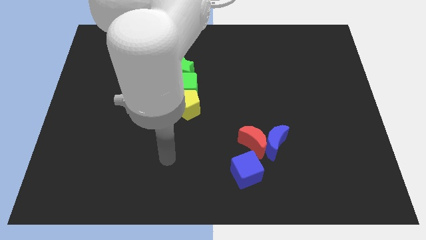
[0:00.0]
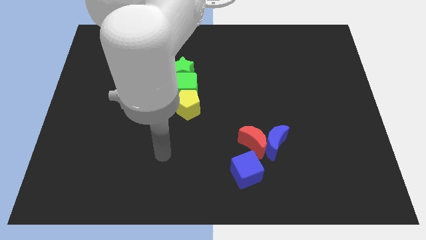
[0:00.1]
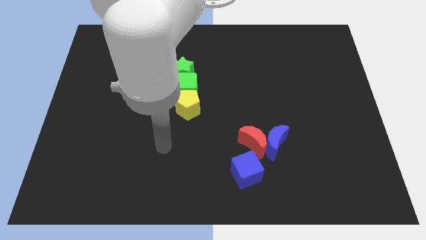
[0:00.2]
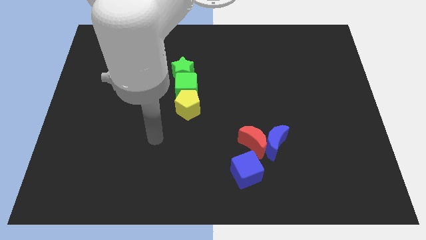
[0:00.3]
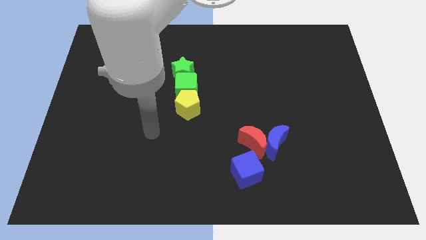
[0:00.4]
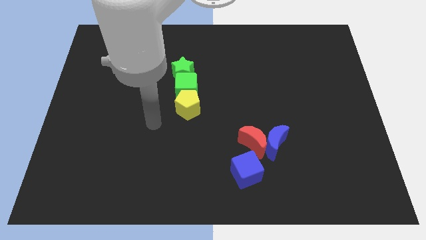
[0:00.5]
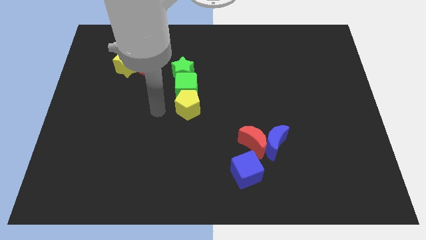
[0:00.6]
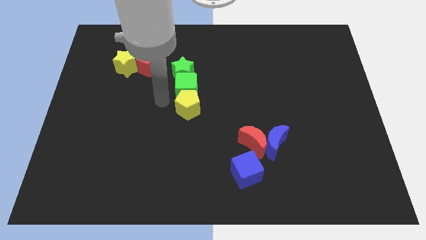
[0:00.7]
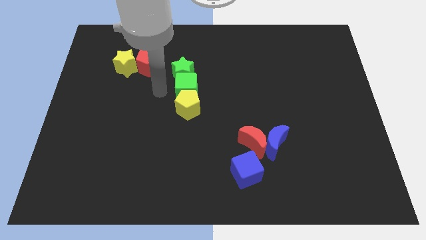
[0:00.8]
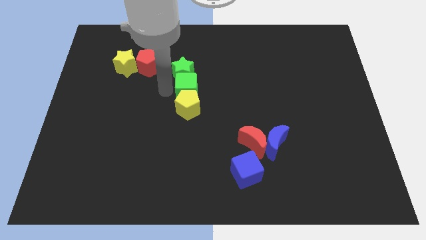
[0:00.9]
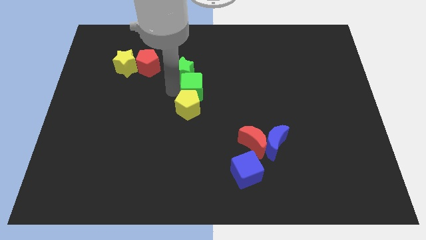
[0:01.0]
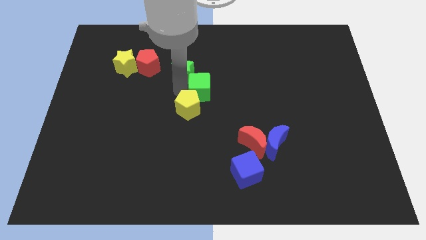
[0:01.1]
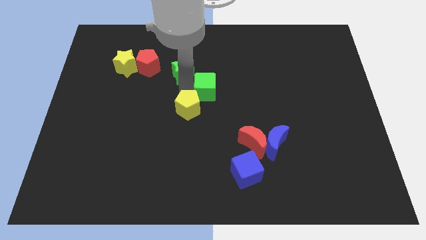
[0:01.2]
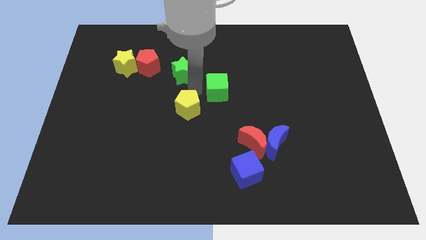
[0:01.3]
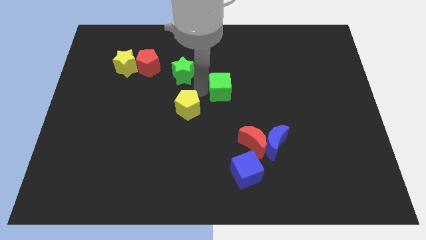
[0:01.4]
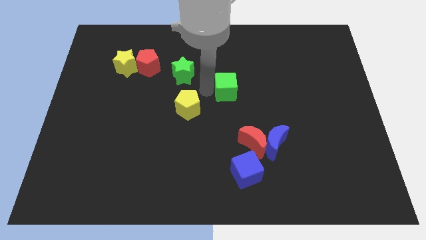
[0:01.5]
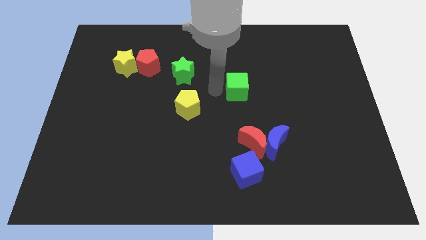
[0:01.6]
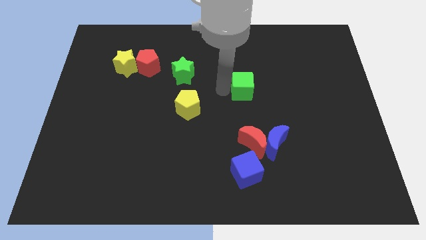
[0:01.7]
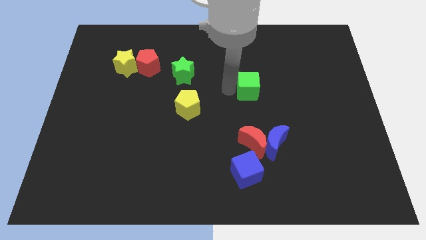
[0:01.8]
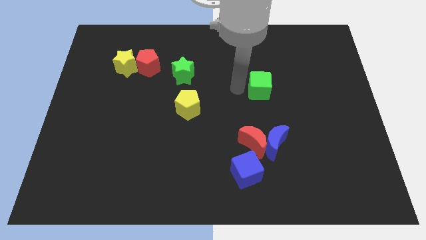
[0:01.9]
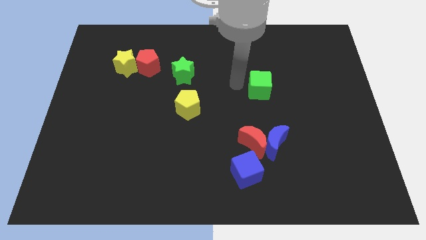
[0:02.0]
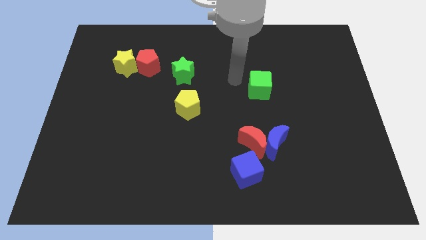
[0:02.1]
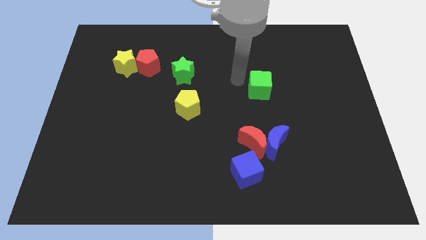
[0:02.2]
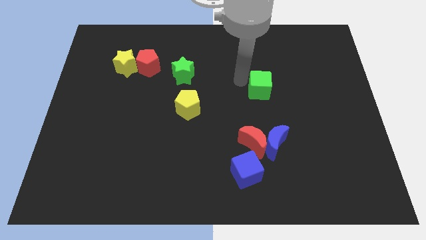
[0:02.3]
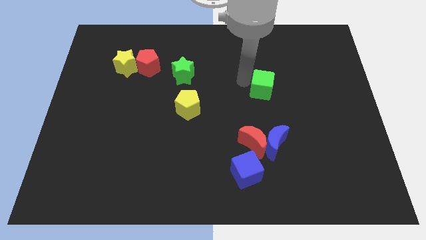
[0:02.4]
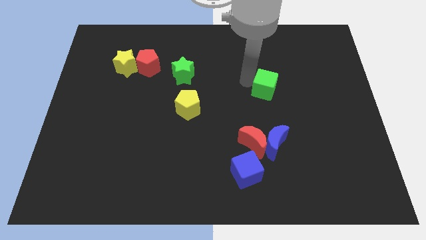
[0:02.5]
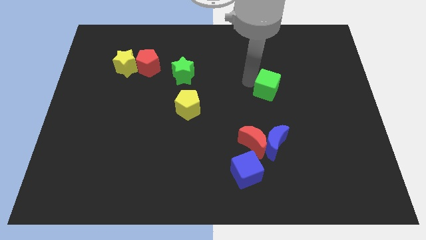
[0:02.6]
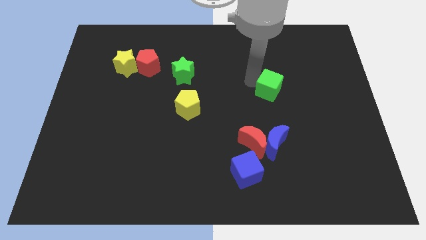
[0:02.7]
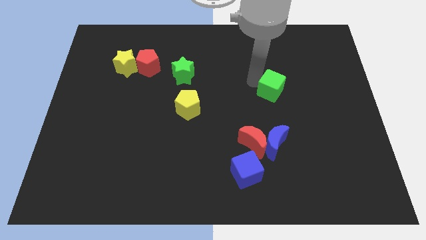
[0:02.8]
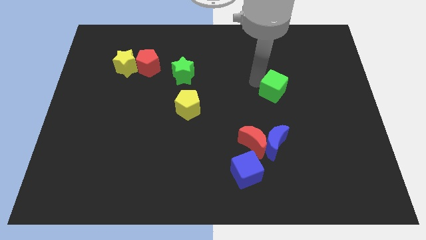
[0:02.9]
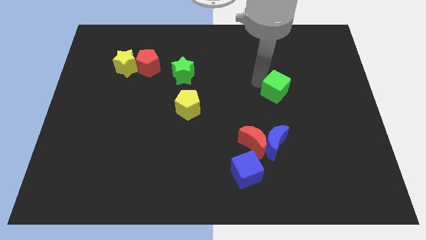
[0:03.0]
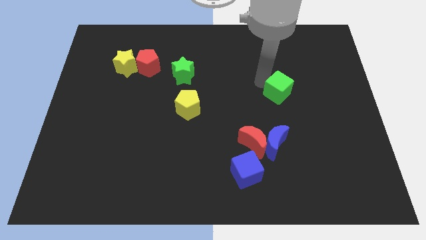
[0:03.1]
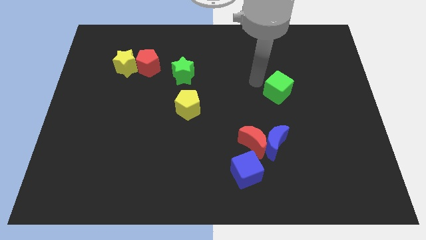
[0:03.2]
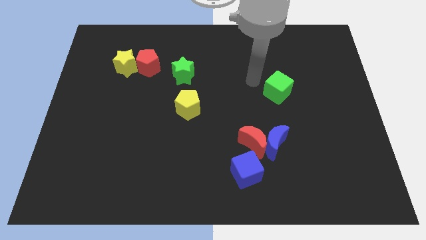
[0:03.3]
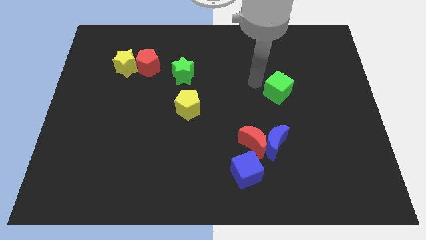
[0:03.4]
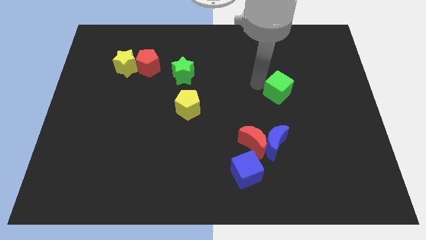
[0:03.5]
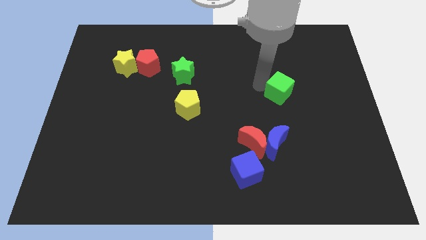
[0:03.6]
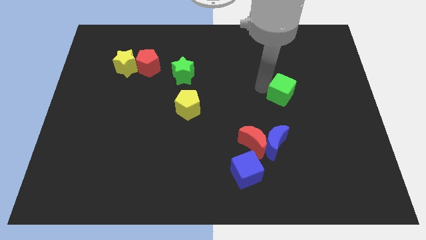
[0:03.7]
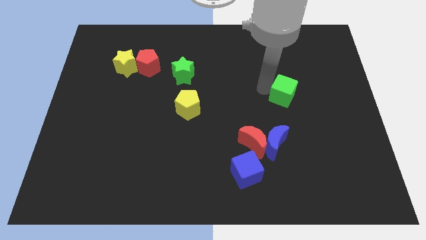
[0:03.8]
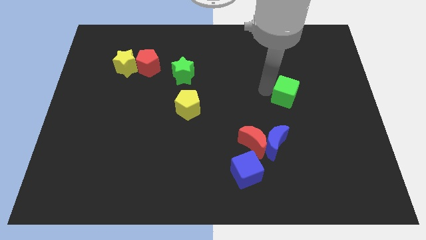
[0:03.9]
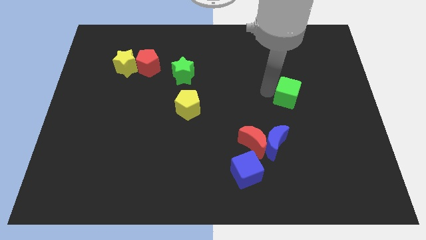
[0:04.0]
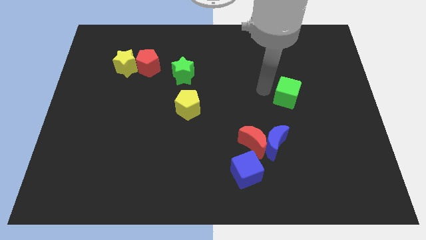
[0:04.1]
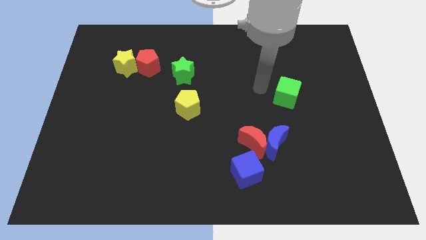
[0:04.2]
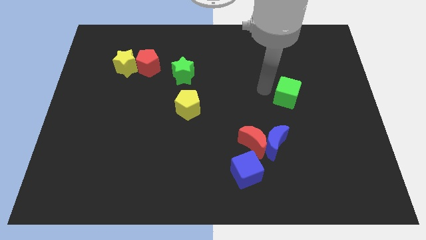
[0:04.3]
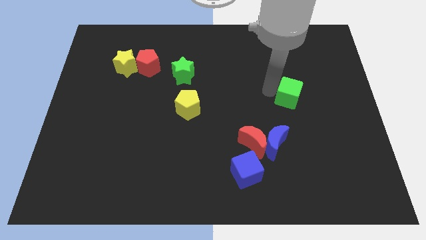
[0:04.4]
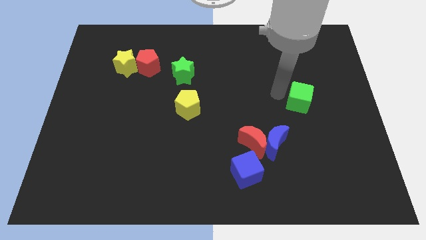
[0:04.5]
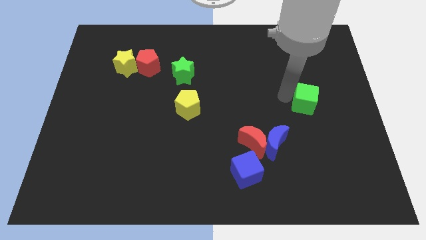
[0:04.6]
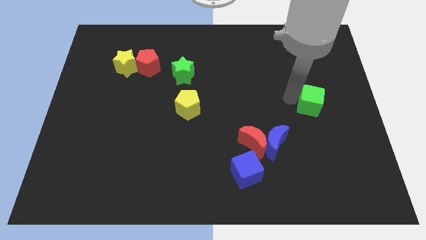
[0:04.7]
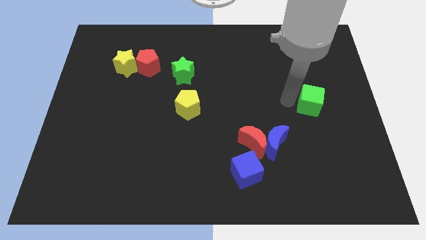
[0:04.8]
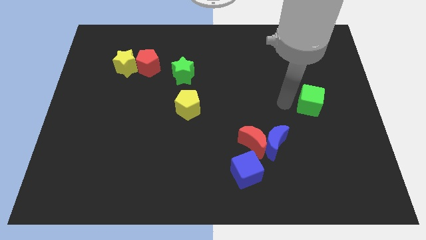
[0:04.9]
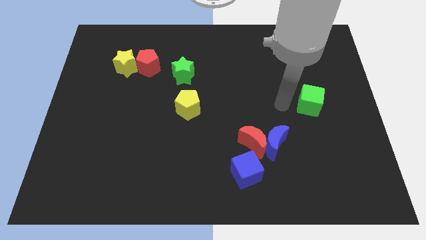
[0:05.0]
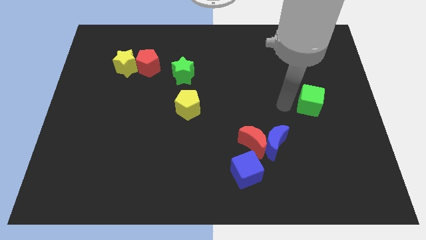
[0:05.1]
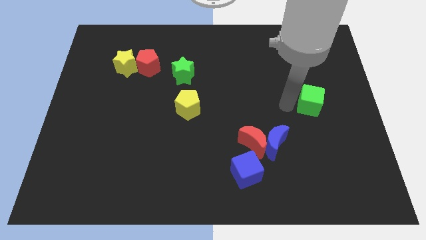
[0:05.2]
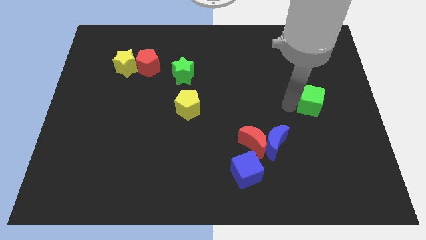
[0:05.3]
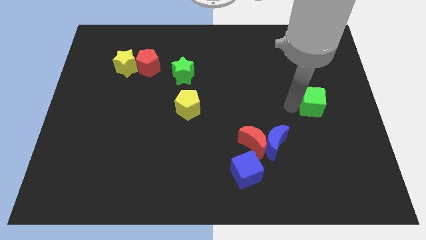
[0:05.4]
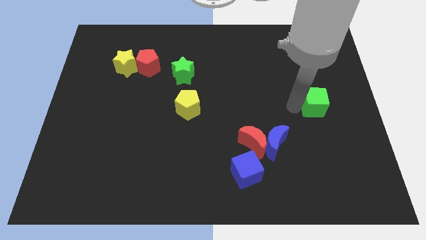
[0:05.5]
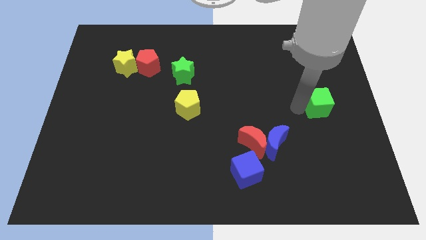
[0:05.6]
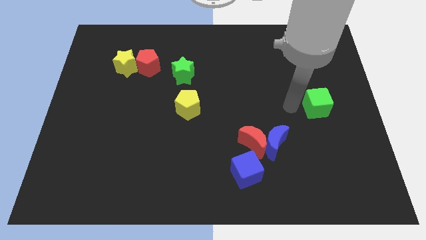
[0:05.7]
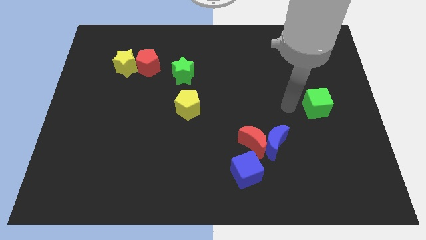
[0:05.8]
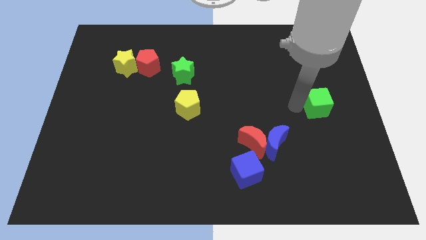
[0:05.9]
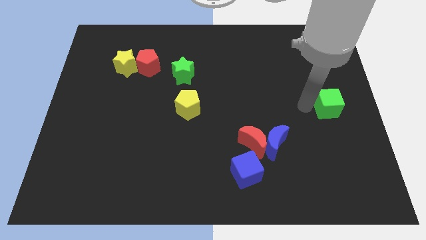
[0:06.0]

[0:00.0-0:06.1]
move the green cube to the center right

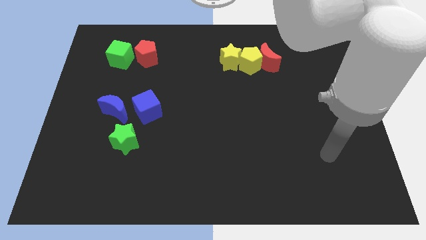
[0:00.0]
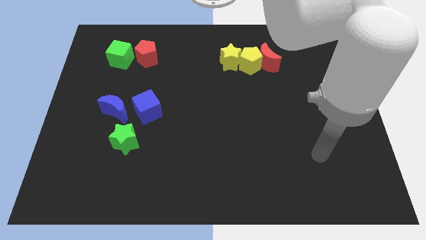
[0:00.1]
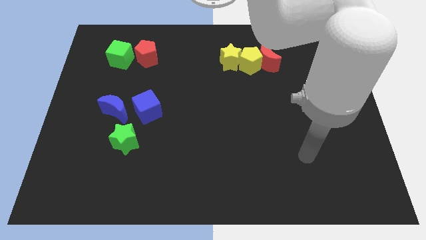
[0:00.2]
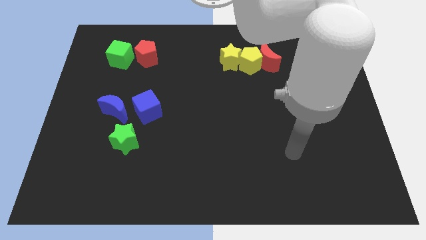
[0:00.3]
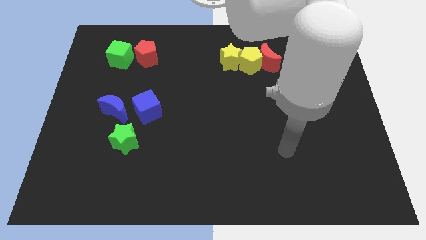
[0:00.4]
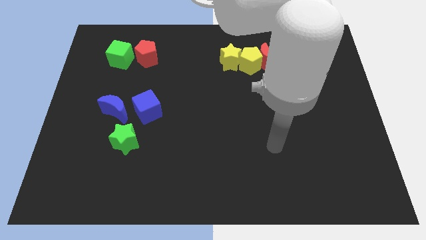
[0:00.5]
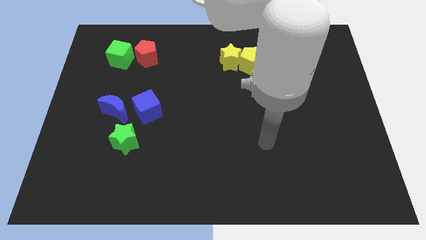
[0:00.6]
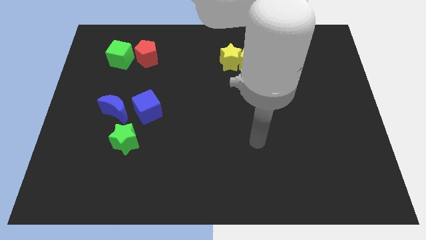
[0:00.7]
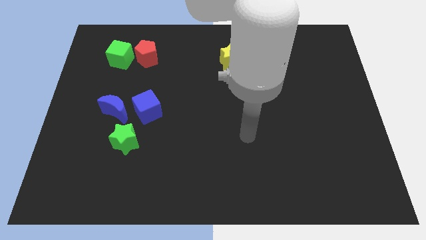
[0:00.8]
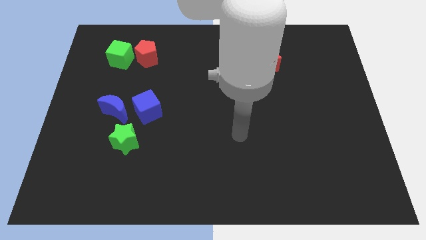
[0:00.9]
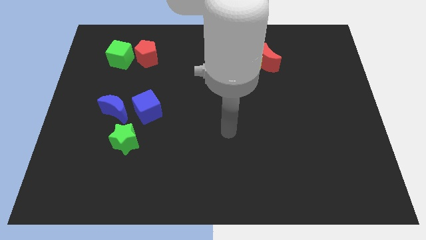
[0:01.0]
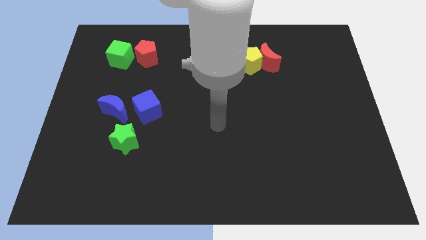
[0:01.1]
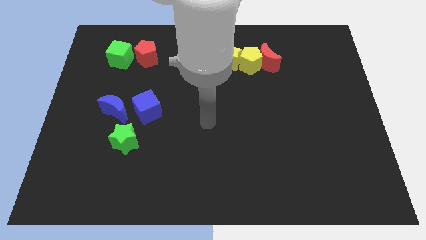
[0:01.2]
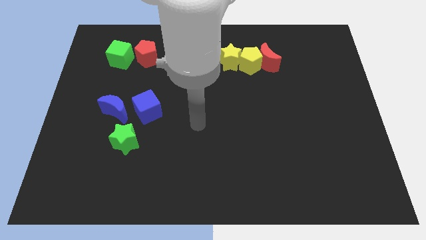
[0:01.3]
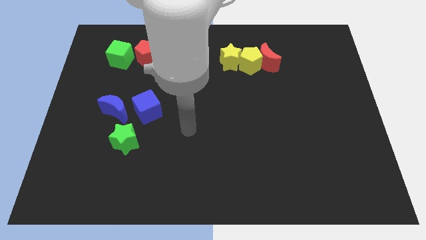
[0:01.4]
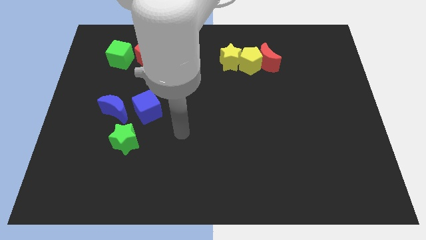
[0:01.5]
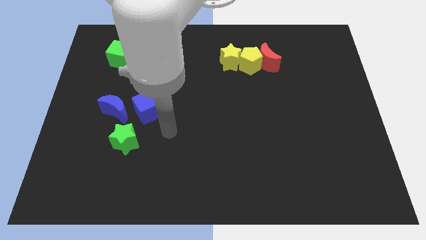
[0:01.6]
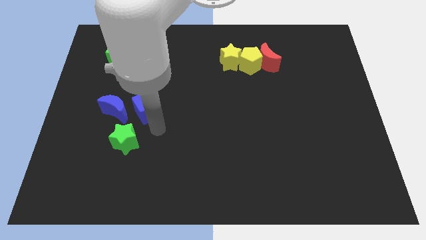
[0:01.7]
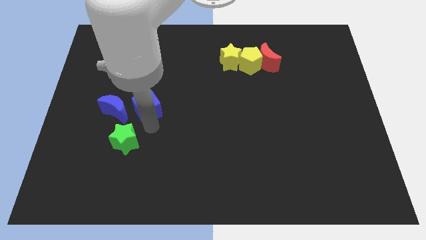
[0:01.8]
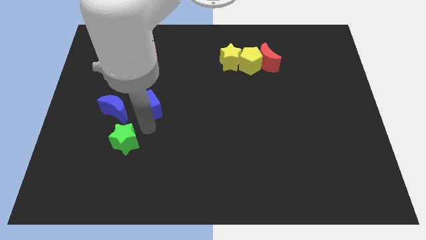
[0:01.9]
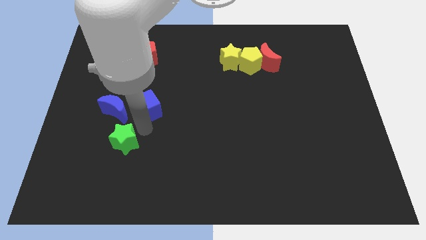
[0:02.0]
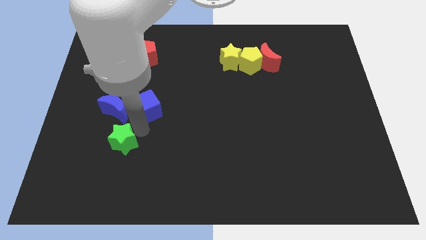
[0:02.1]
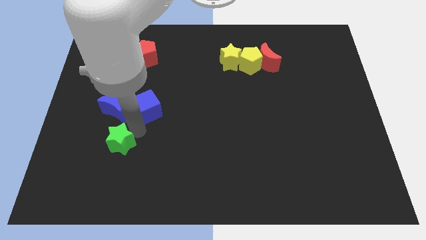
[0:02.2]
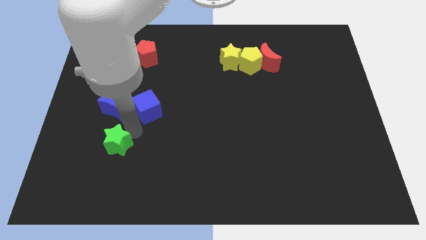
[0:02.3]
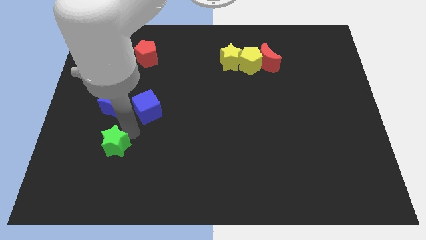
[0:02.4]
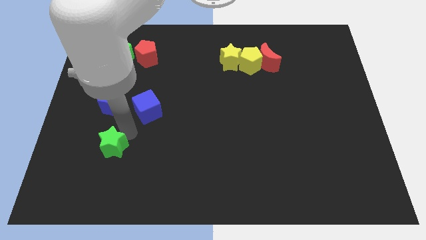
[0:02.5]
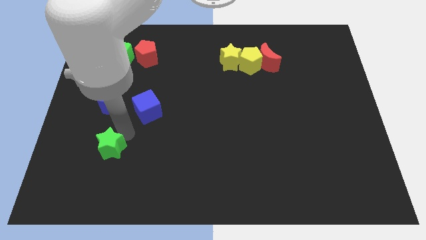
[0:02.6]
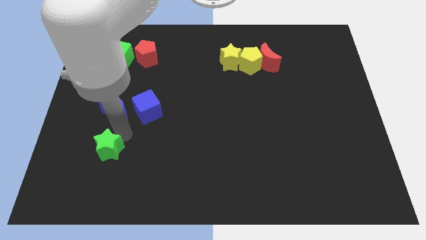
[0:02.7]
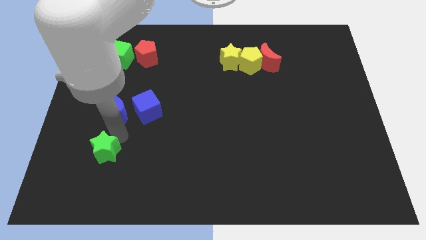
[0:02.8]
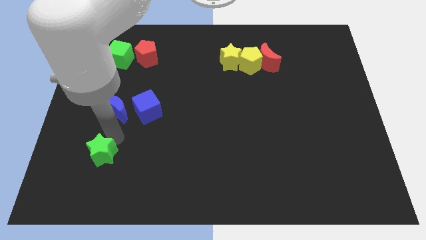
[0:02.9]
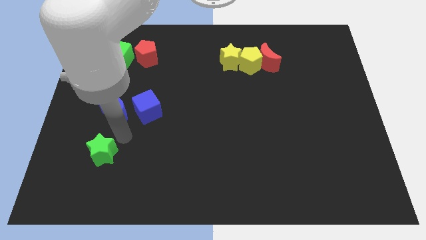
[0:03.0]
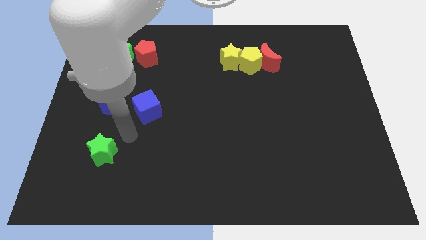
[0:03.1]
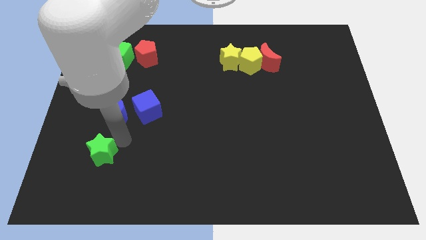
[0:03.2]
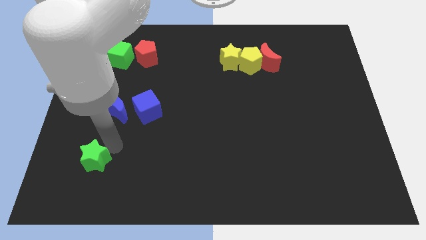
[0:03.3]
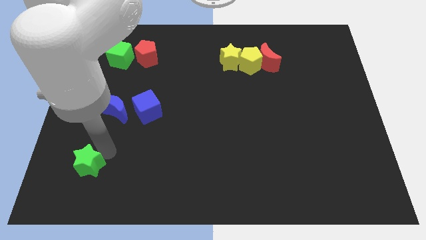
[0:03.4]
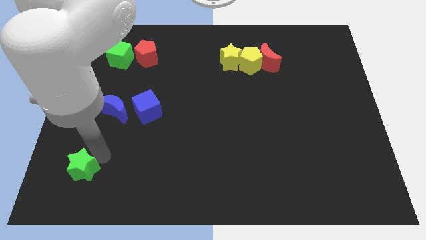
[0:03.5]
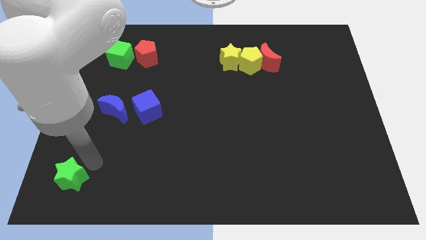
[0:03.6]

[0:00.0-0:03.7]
push the green star to the lower left corner
